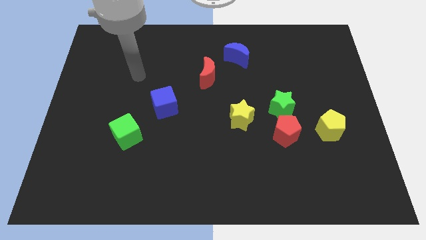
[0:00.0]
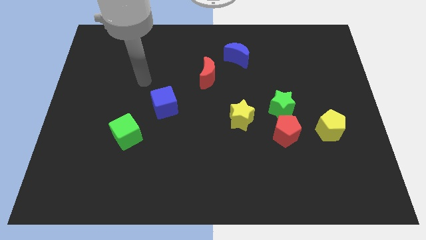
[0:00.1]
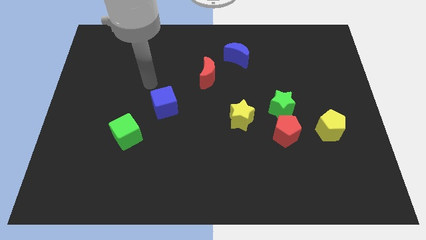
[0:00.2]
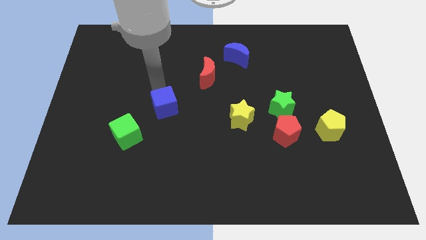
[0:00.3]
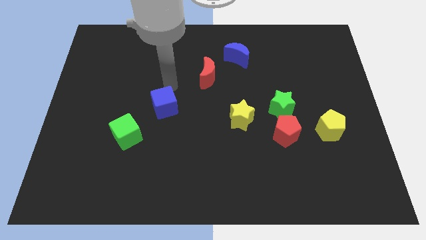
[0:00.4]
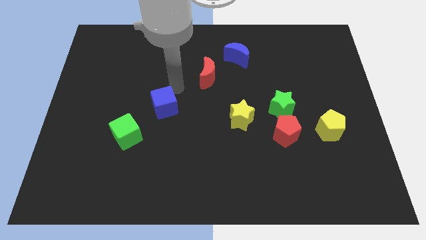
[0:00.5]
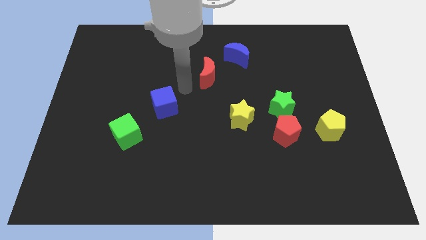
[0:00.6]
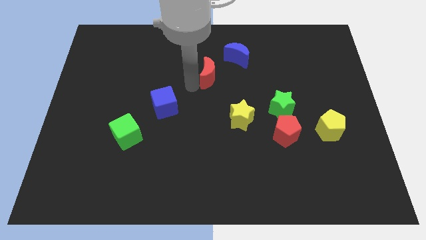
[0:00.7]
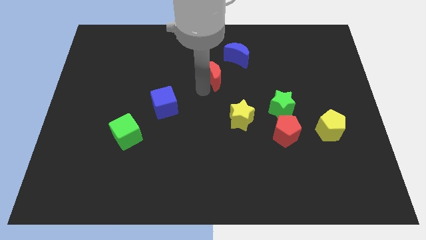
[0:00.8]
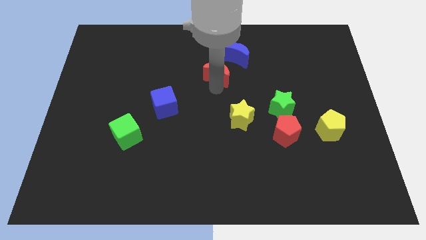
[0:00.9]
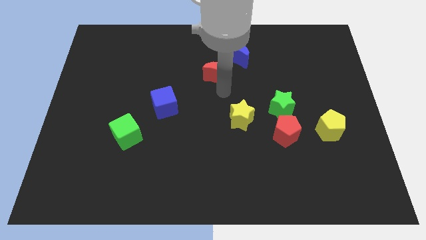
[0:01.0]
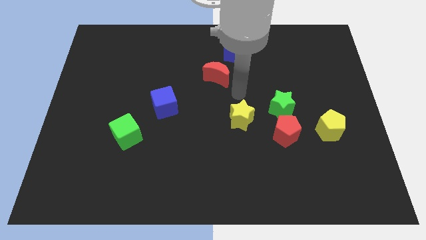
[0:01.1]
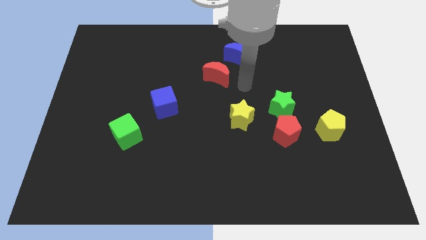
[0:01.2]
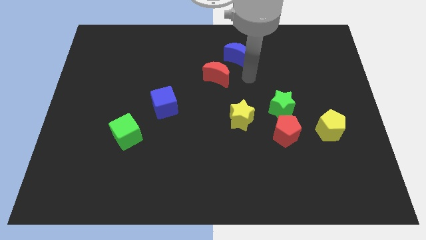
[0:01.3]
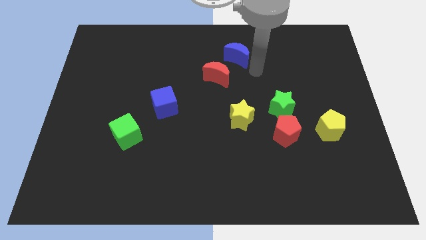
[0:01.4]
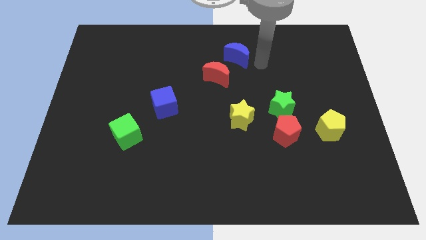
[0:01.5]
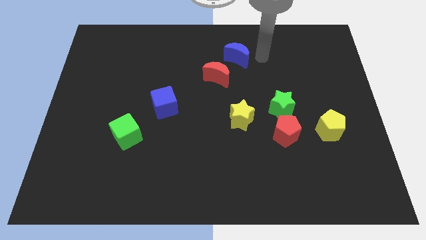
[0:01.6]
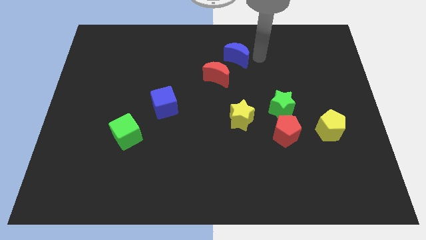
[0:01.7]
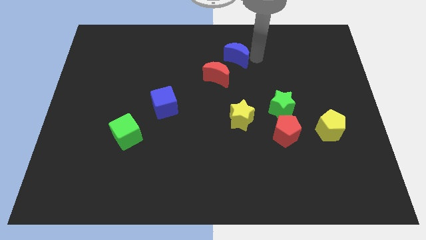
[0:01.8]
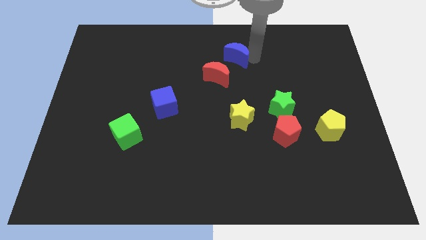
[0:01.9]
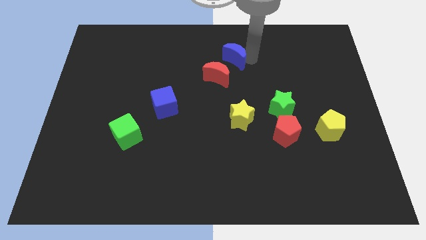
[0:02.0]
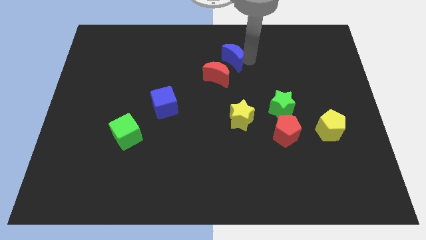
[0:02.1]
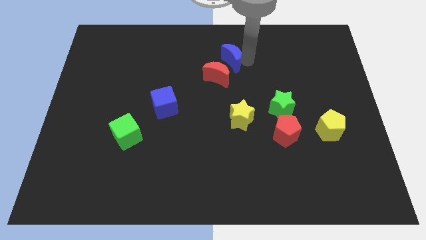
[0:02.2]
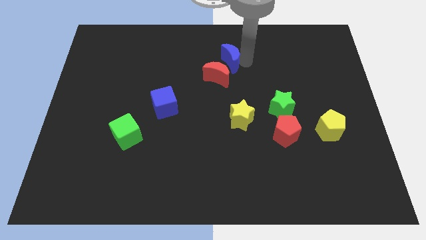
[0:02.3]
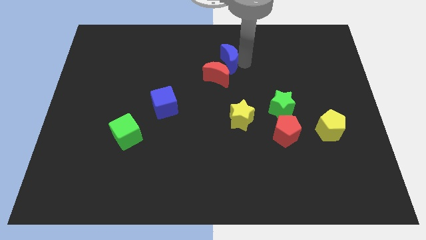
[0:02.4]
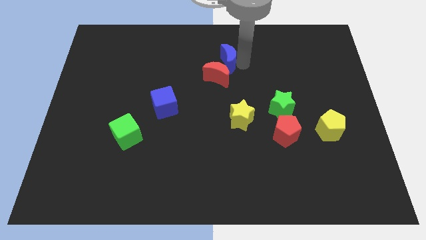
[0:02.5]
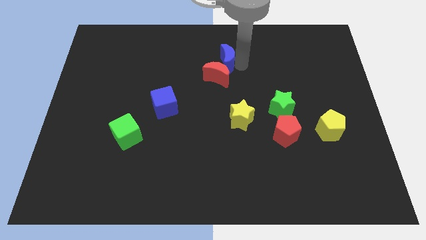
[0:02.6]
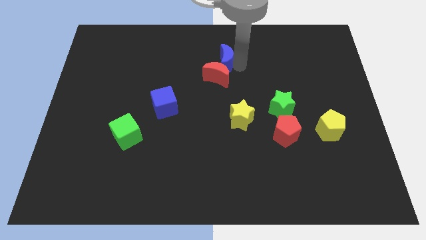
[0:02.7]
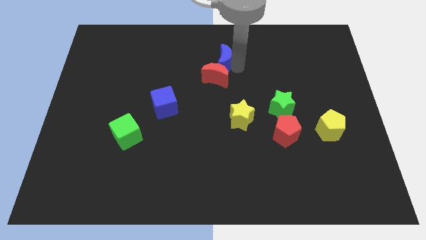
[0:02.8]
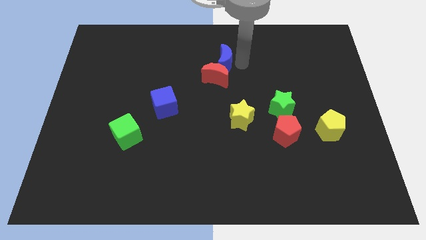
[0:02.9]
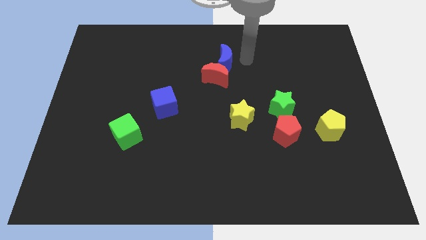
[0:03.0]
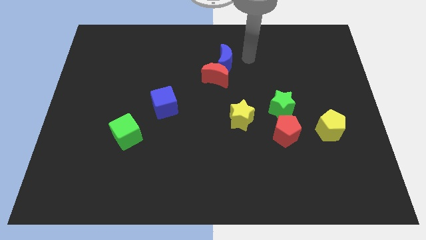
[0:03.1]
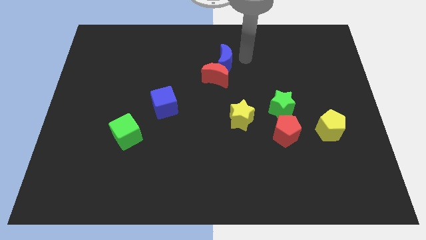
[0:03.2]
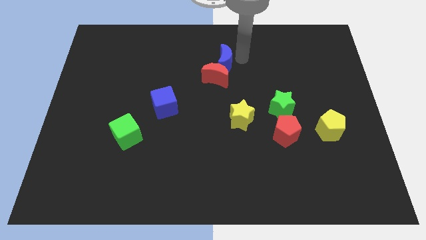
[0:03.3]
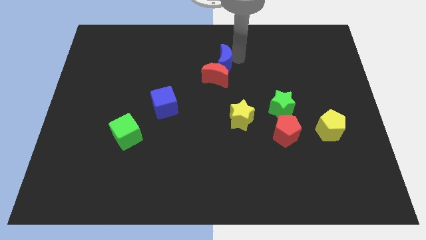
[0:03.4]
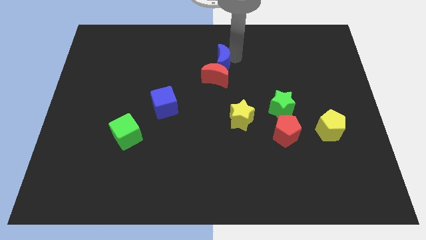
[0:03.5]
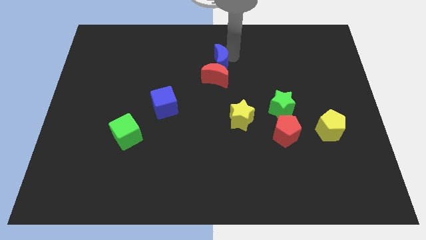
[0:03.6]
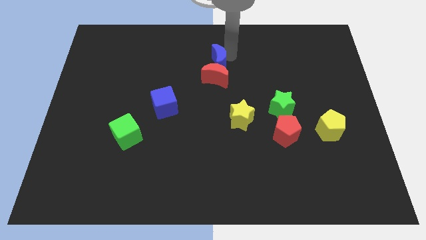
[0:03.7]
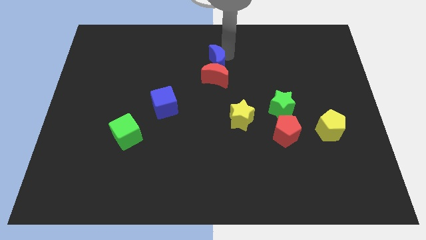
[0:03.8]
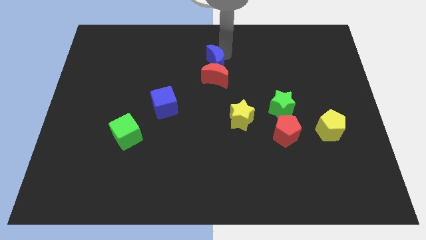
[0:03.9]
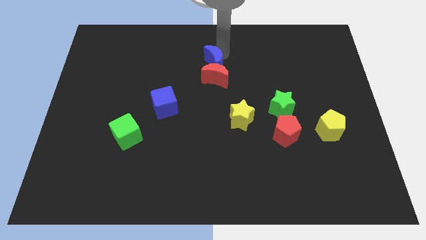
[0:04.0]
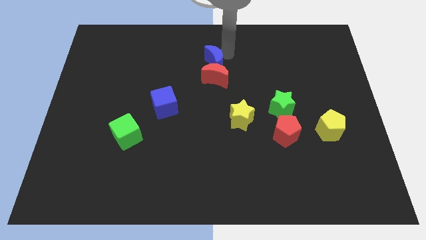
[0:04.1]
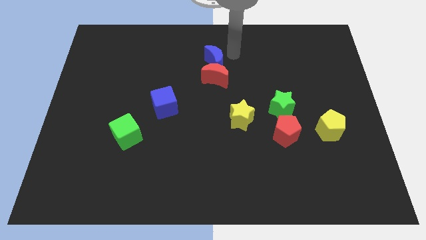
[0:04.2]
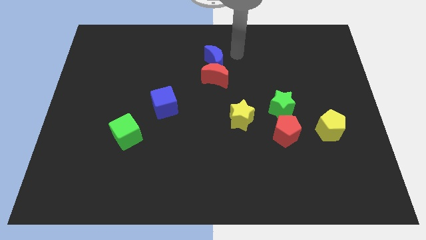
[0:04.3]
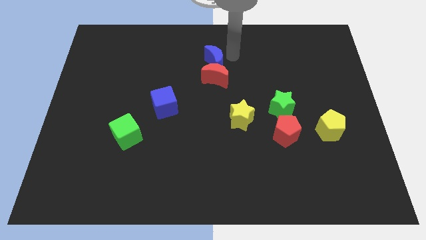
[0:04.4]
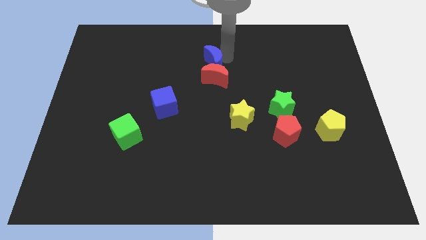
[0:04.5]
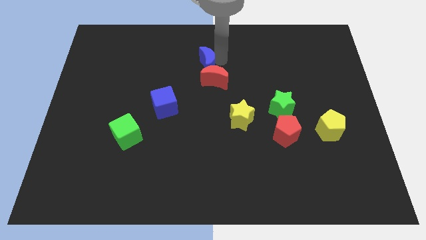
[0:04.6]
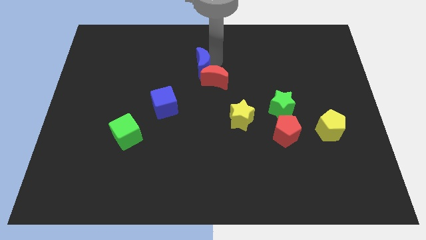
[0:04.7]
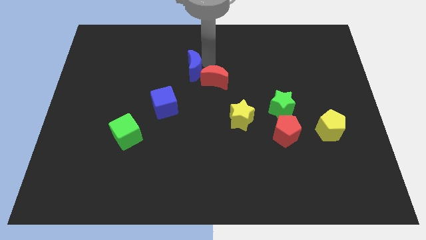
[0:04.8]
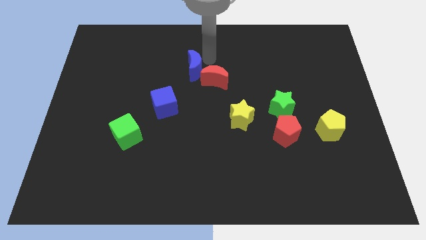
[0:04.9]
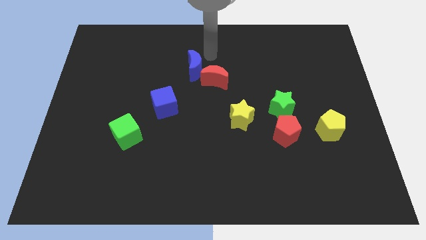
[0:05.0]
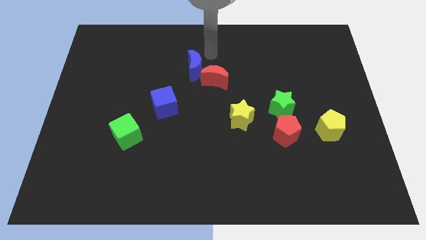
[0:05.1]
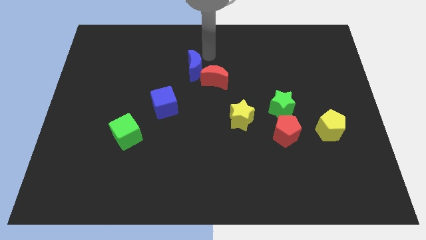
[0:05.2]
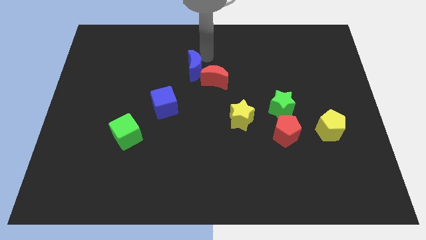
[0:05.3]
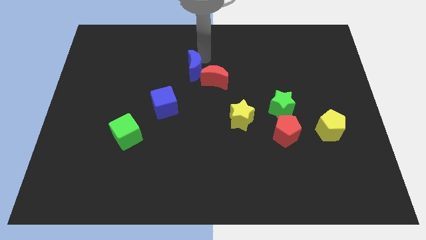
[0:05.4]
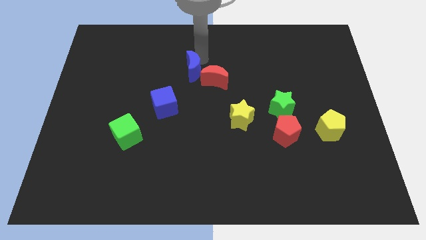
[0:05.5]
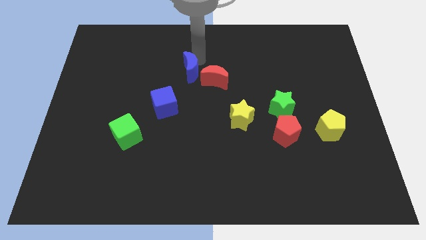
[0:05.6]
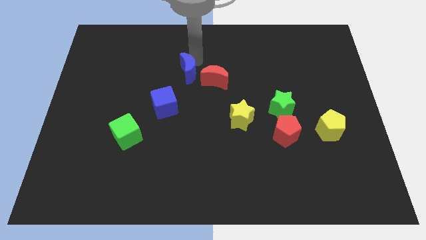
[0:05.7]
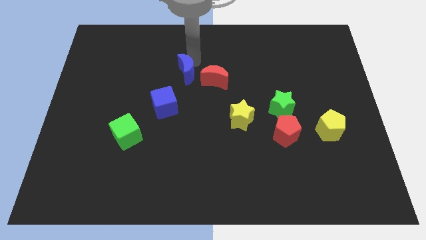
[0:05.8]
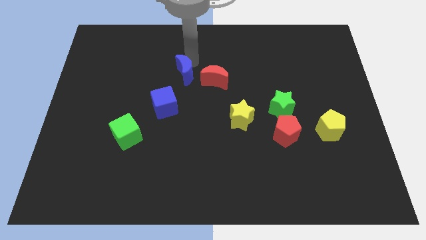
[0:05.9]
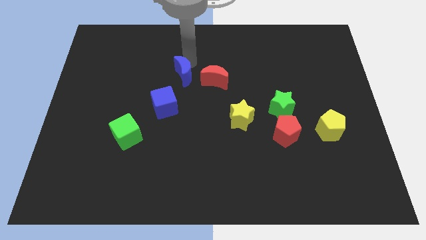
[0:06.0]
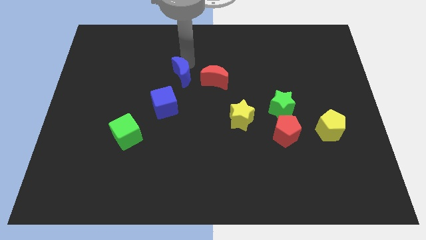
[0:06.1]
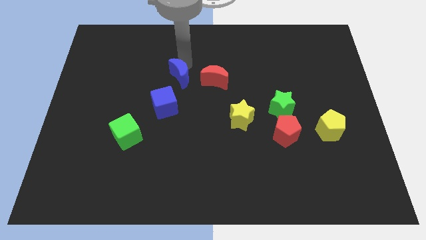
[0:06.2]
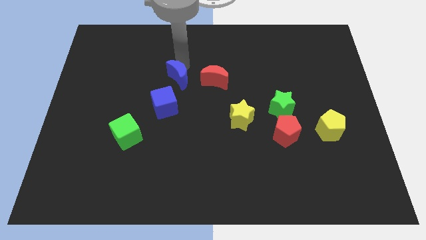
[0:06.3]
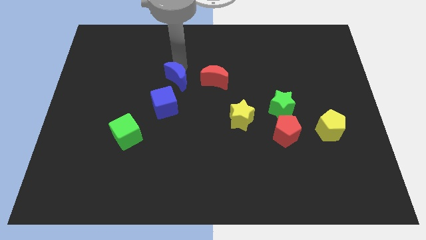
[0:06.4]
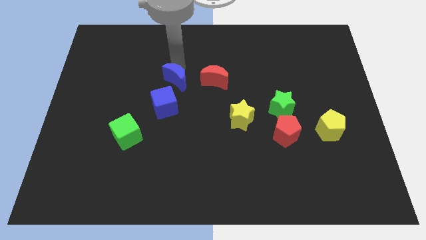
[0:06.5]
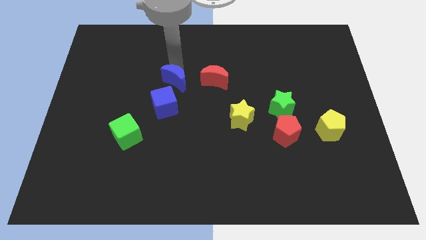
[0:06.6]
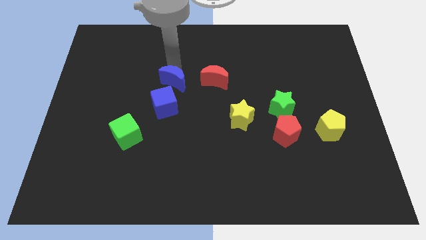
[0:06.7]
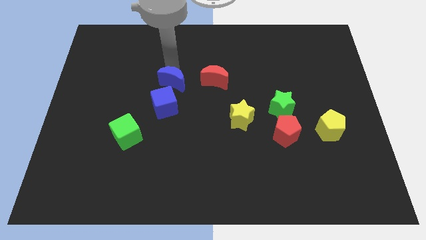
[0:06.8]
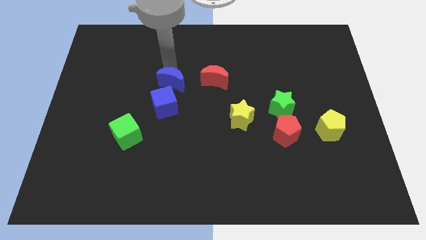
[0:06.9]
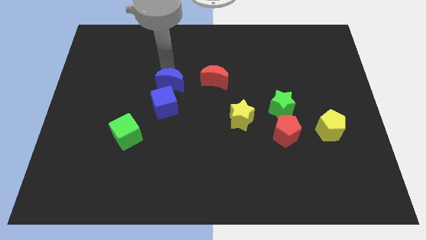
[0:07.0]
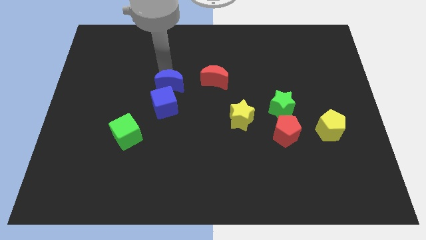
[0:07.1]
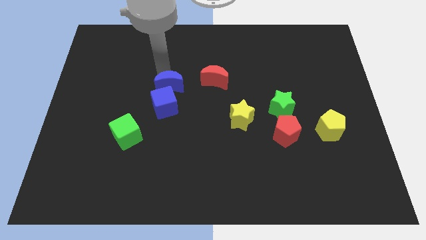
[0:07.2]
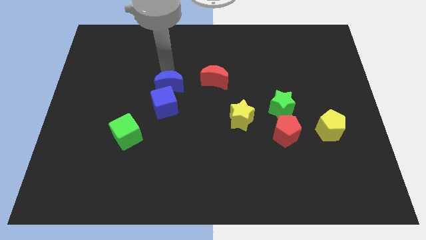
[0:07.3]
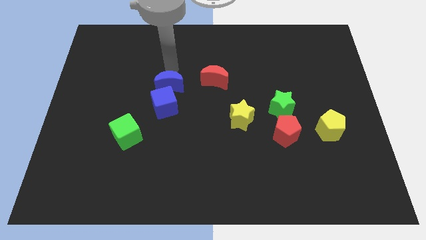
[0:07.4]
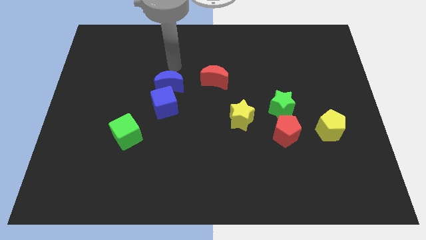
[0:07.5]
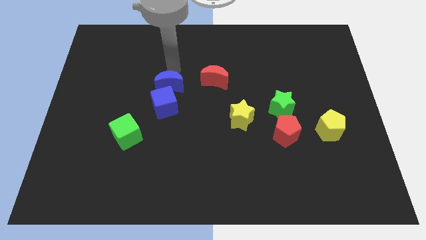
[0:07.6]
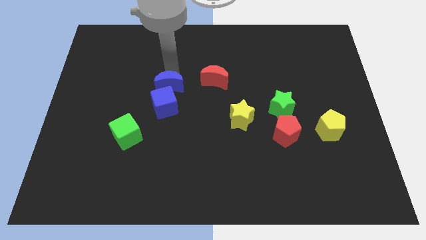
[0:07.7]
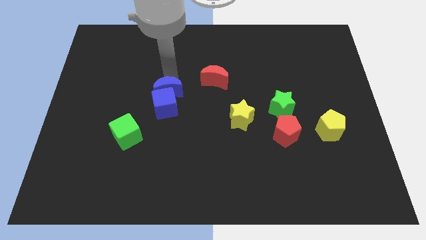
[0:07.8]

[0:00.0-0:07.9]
move the blue moon next to the blue cube
